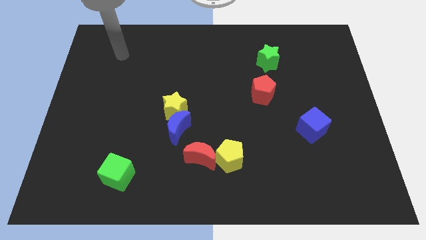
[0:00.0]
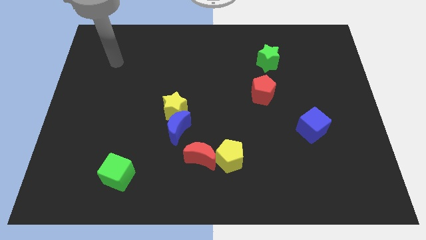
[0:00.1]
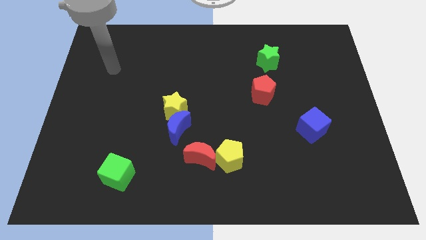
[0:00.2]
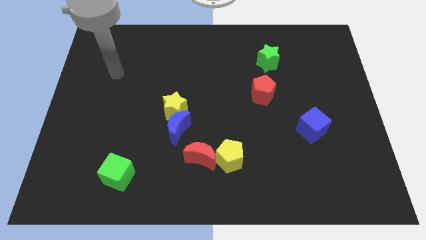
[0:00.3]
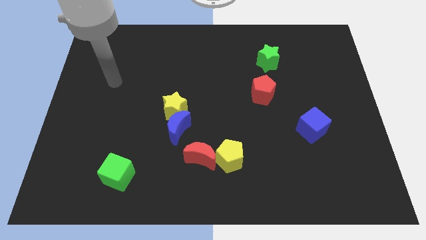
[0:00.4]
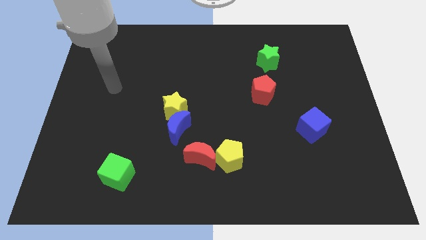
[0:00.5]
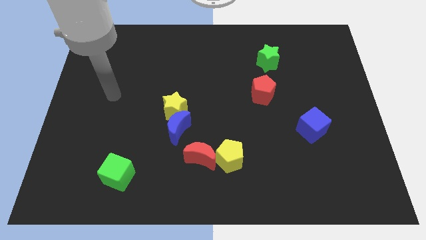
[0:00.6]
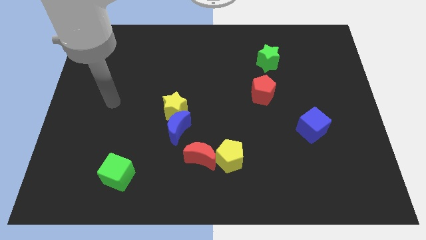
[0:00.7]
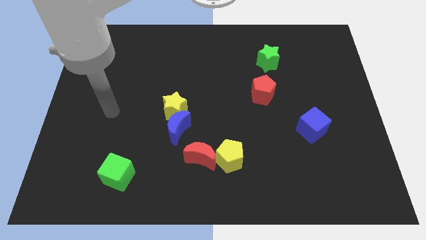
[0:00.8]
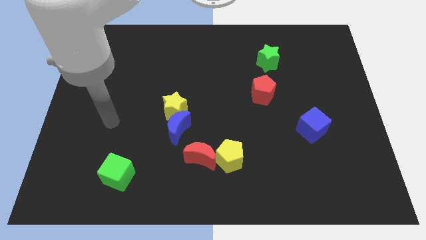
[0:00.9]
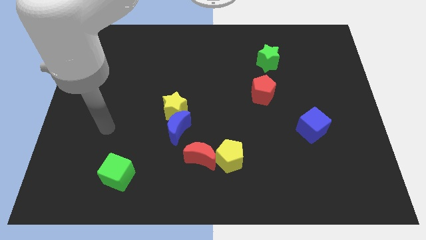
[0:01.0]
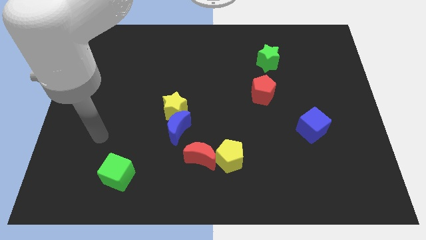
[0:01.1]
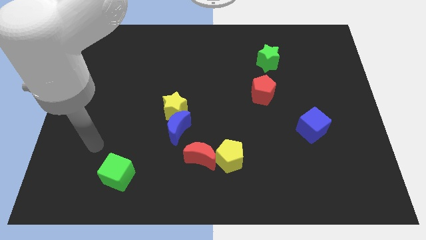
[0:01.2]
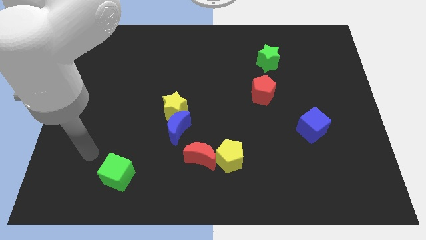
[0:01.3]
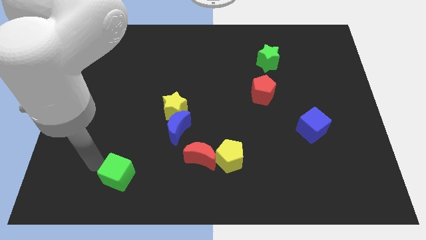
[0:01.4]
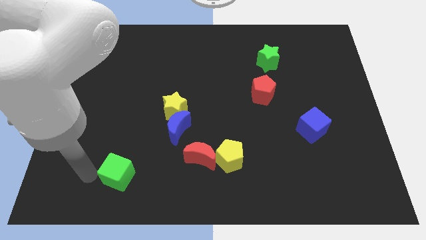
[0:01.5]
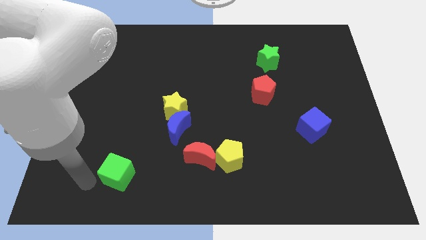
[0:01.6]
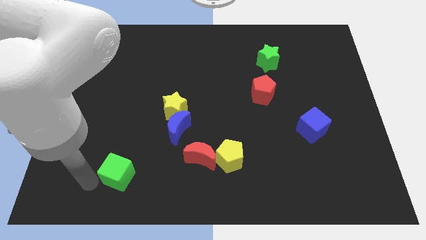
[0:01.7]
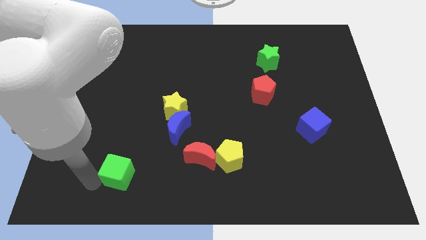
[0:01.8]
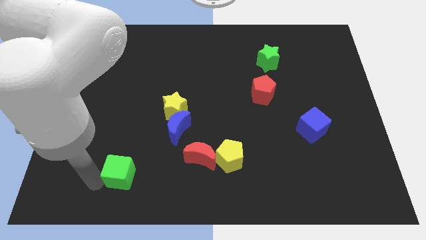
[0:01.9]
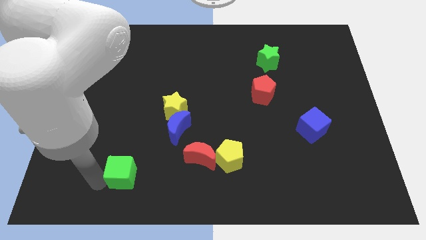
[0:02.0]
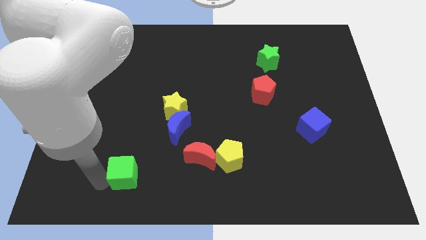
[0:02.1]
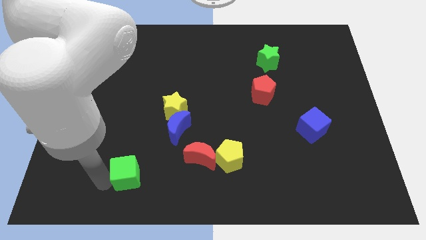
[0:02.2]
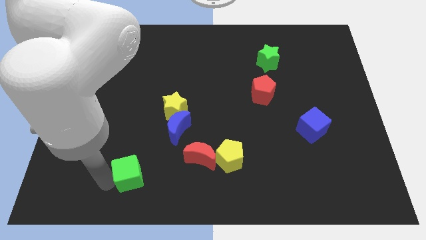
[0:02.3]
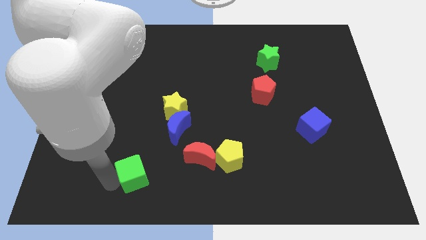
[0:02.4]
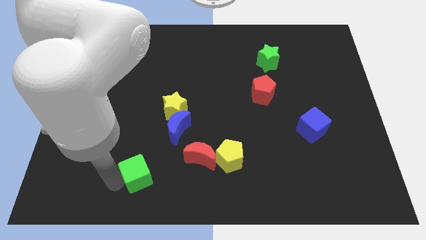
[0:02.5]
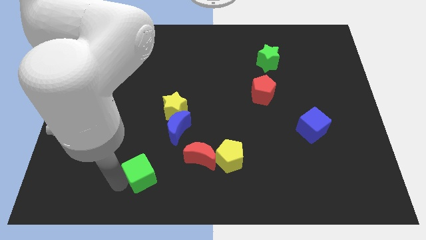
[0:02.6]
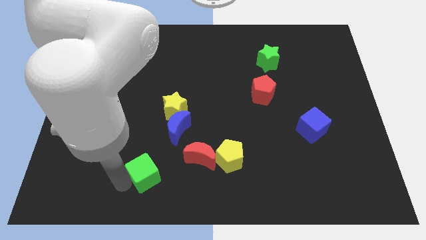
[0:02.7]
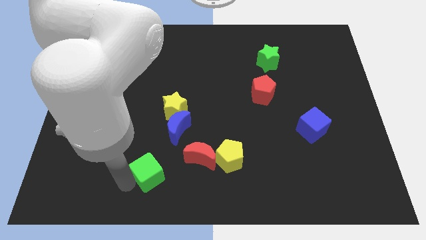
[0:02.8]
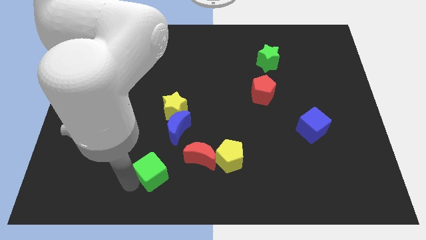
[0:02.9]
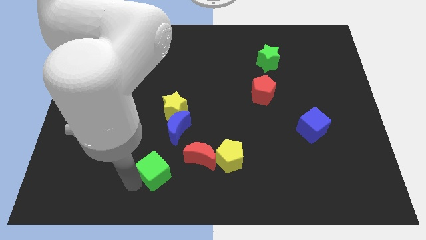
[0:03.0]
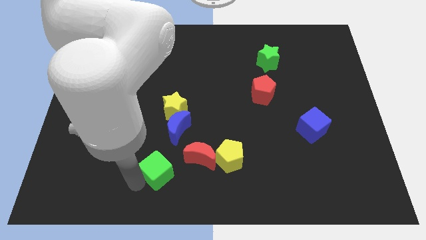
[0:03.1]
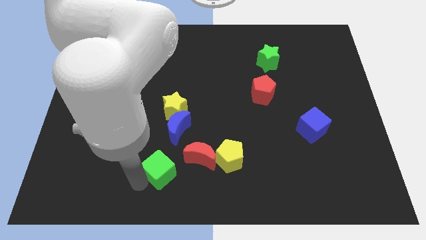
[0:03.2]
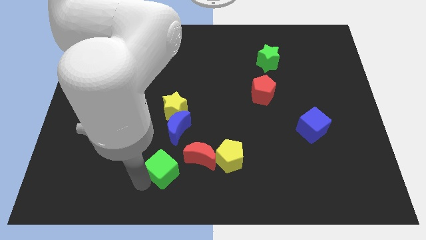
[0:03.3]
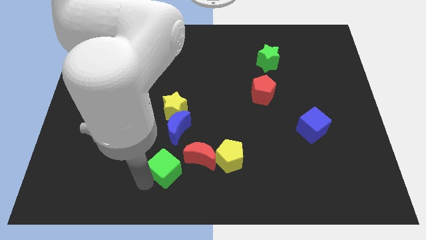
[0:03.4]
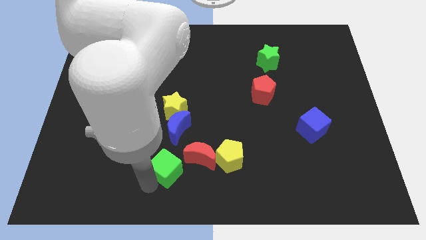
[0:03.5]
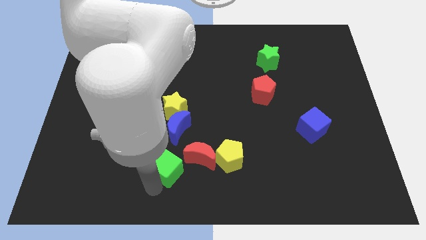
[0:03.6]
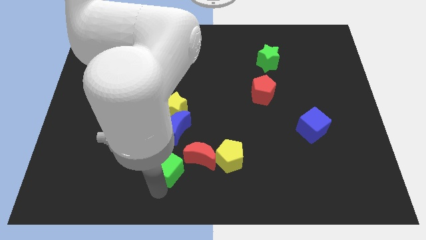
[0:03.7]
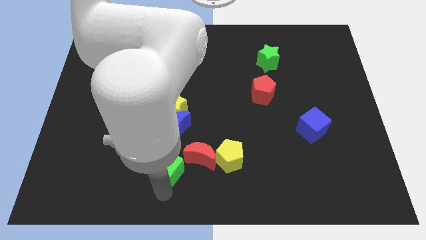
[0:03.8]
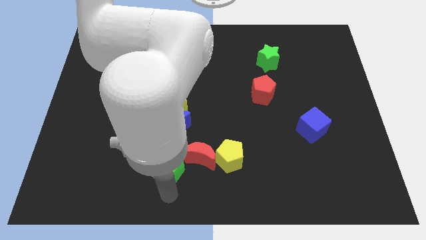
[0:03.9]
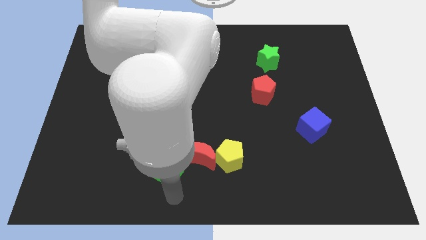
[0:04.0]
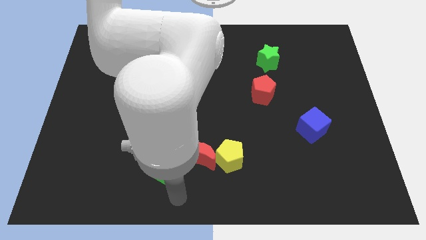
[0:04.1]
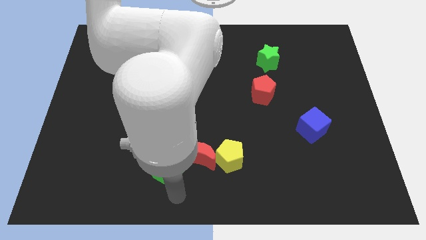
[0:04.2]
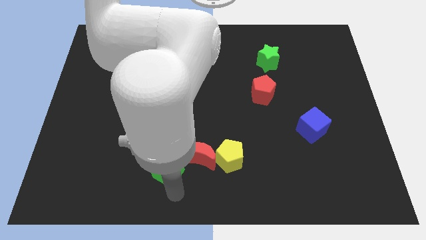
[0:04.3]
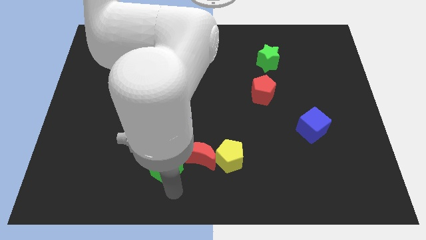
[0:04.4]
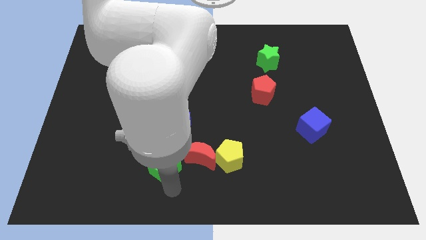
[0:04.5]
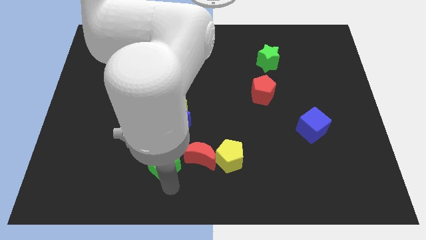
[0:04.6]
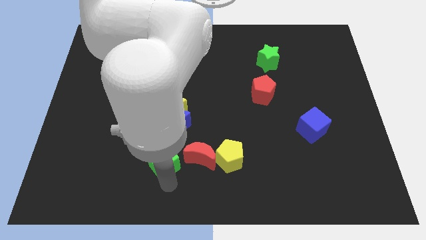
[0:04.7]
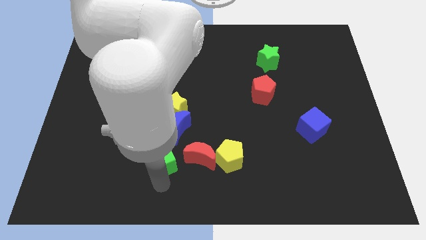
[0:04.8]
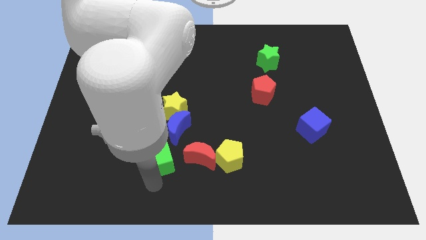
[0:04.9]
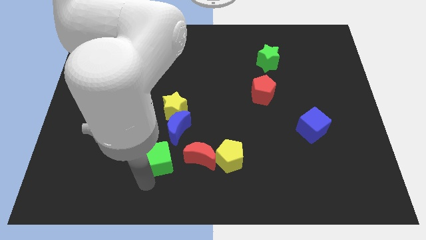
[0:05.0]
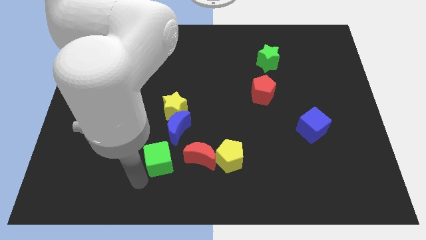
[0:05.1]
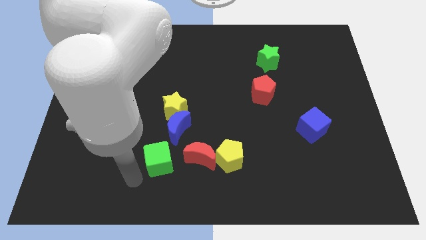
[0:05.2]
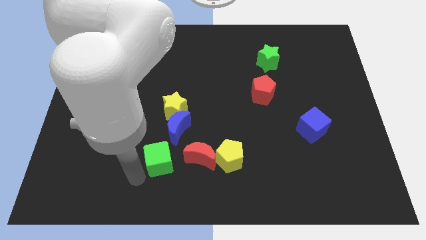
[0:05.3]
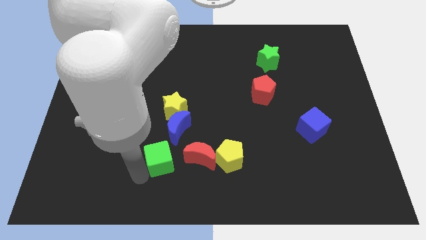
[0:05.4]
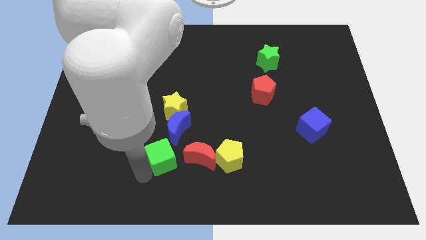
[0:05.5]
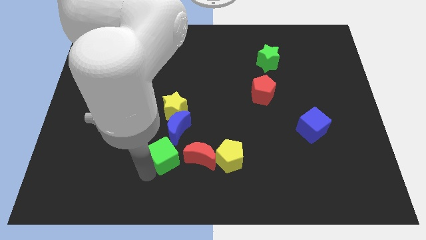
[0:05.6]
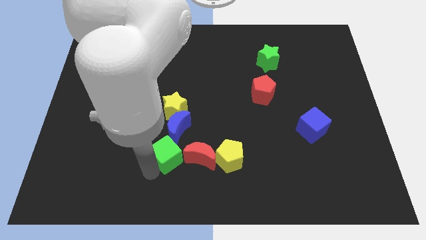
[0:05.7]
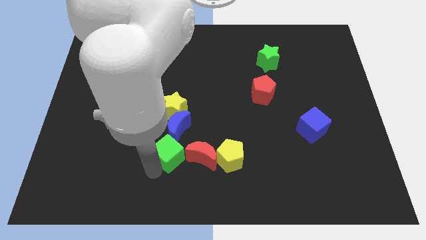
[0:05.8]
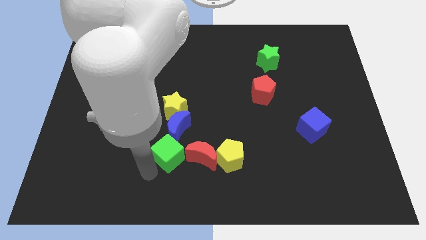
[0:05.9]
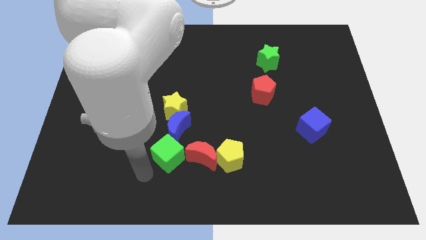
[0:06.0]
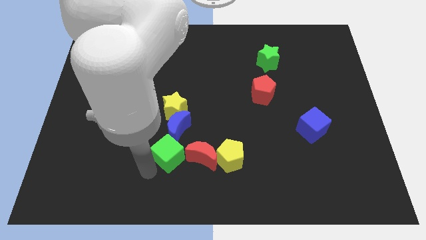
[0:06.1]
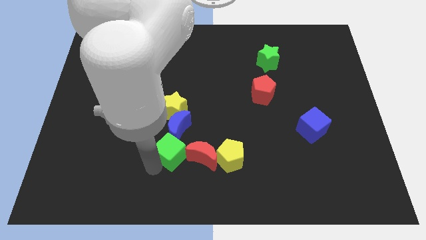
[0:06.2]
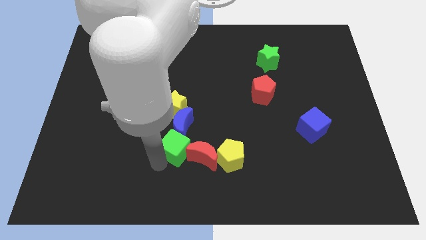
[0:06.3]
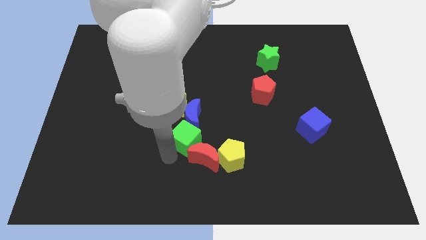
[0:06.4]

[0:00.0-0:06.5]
slide the green cube to the top side of the red moon
